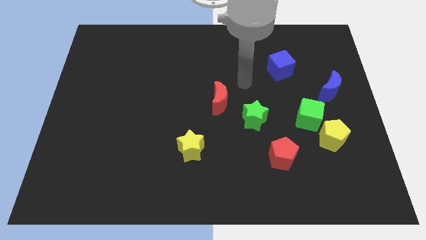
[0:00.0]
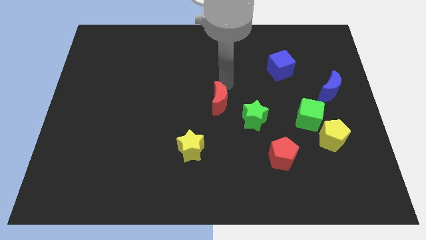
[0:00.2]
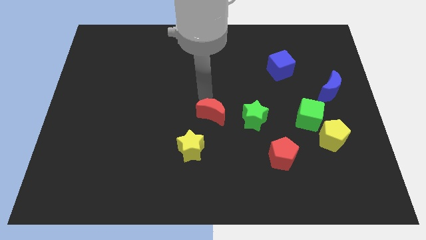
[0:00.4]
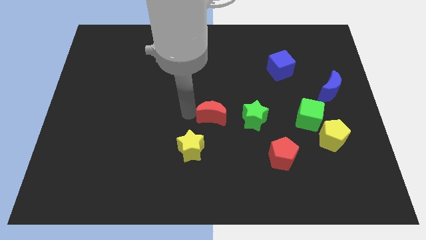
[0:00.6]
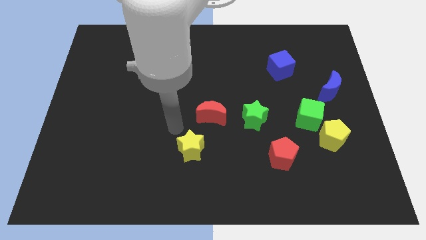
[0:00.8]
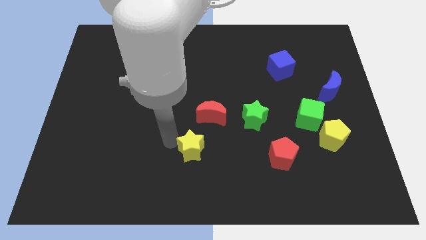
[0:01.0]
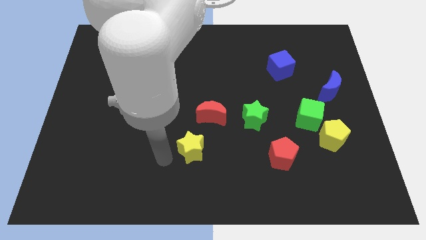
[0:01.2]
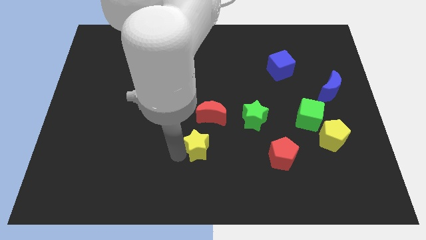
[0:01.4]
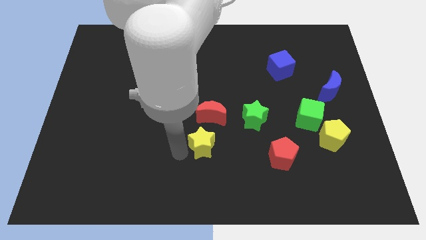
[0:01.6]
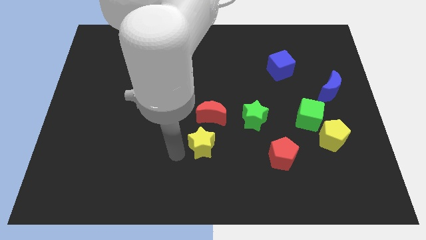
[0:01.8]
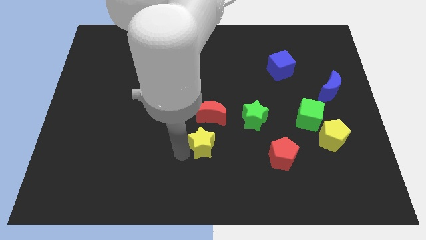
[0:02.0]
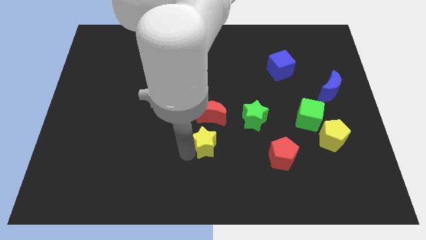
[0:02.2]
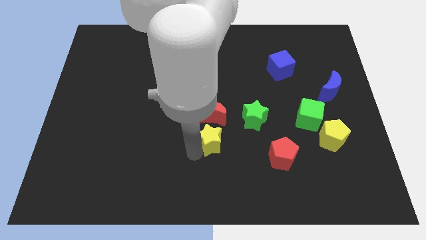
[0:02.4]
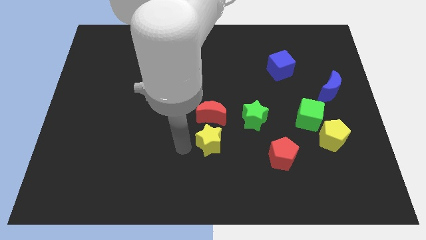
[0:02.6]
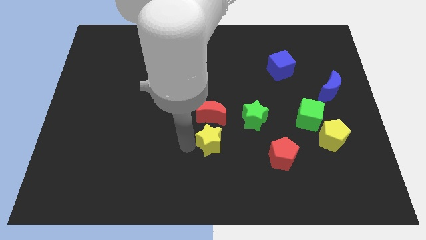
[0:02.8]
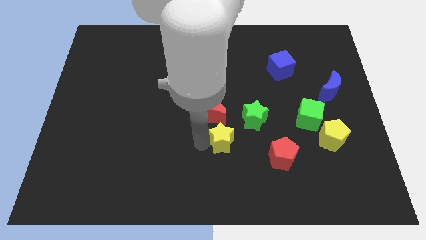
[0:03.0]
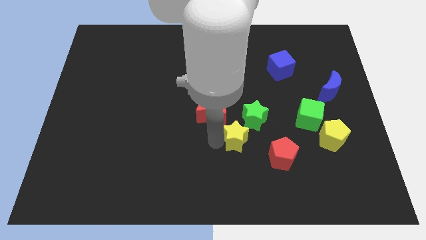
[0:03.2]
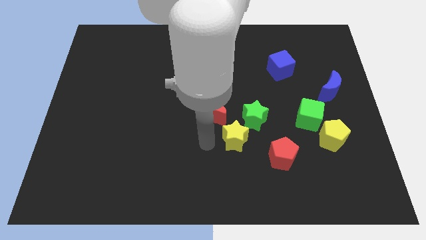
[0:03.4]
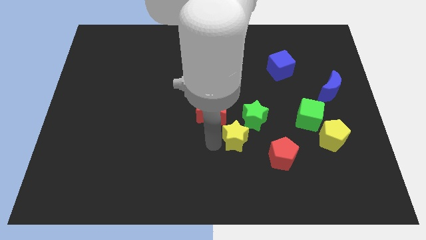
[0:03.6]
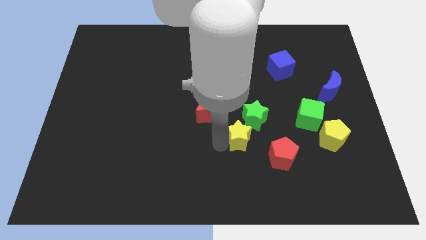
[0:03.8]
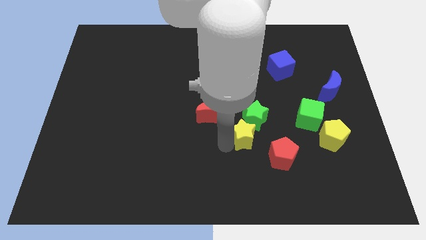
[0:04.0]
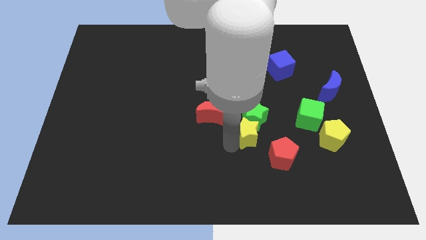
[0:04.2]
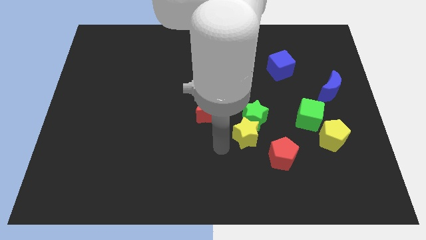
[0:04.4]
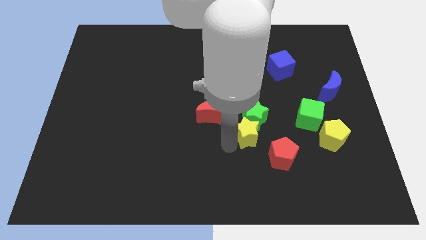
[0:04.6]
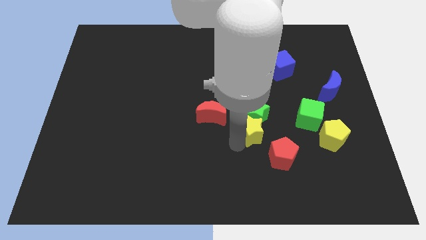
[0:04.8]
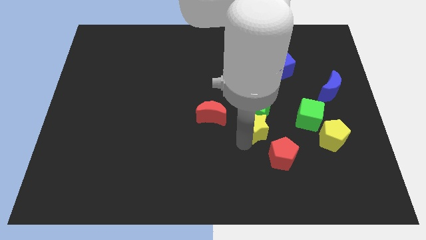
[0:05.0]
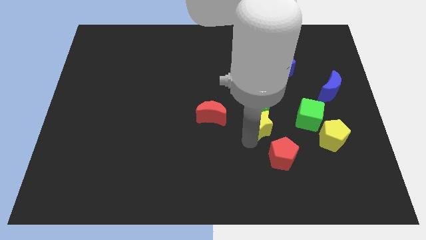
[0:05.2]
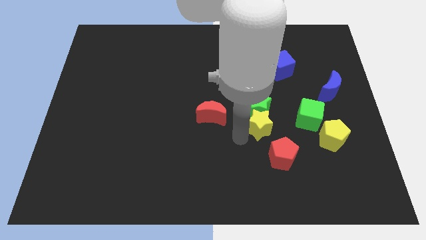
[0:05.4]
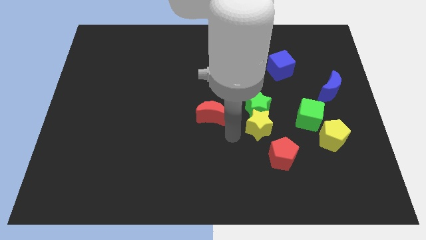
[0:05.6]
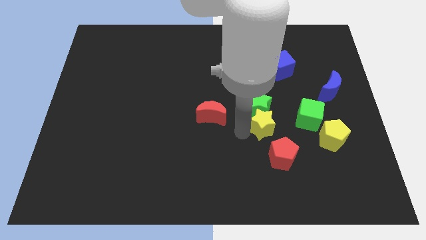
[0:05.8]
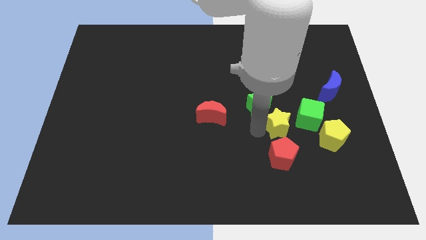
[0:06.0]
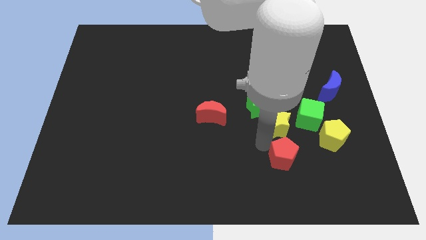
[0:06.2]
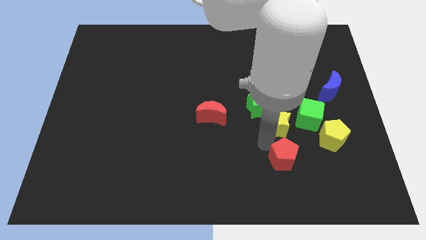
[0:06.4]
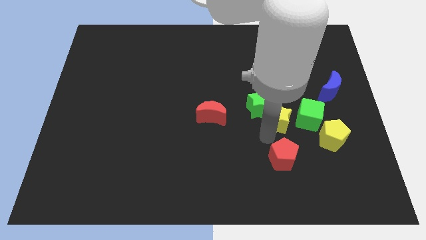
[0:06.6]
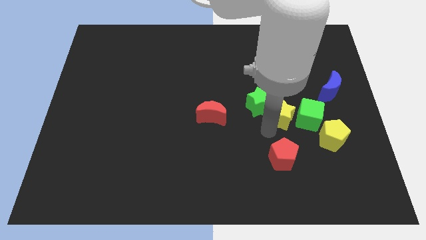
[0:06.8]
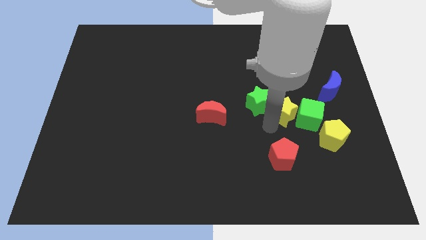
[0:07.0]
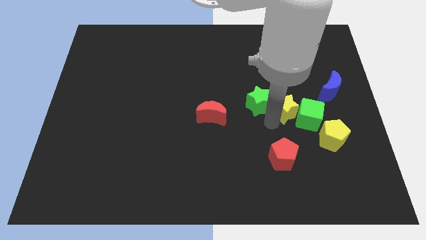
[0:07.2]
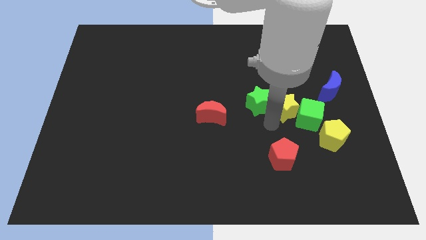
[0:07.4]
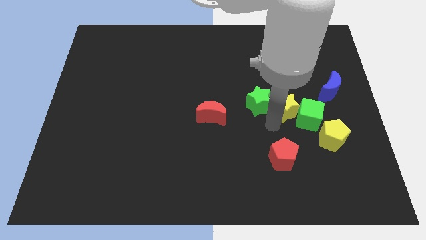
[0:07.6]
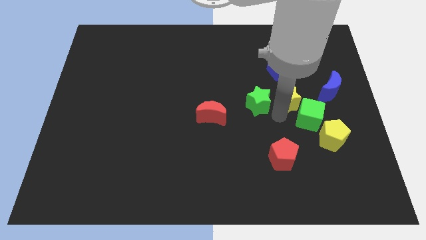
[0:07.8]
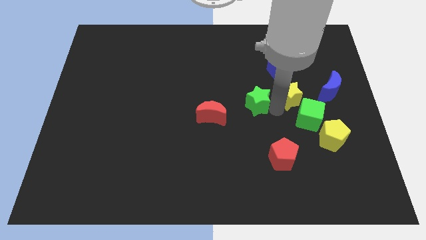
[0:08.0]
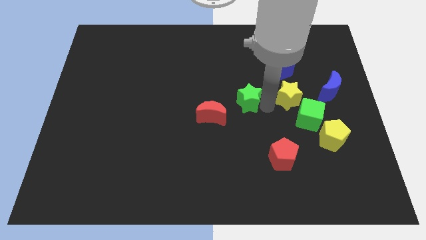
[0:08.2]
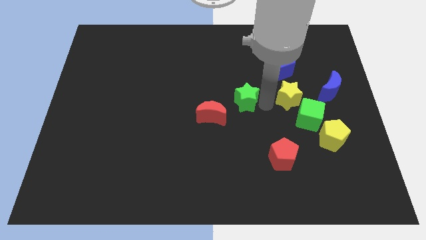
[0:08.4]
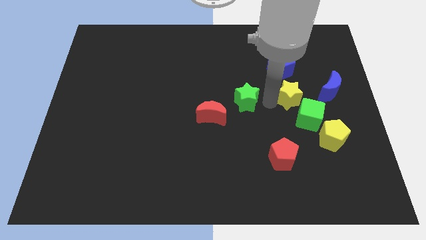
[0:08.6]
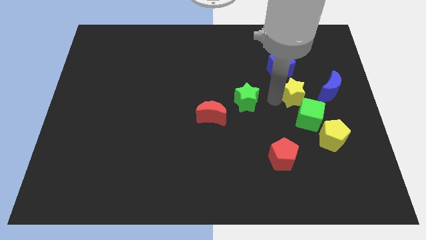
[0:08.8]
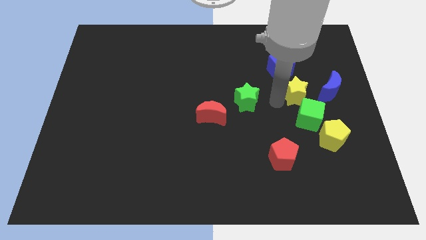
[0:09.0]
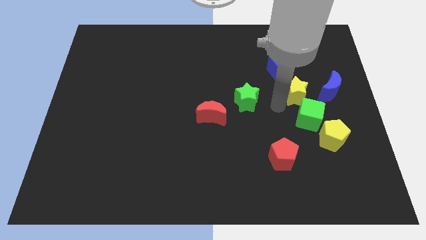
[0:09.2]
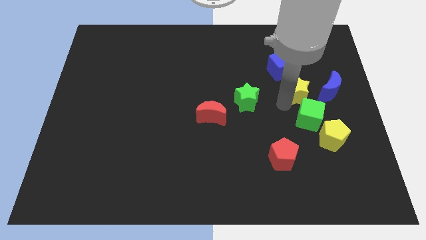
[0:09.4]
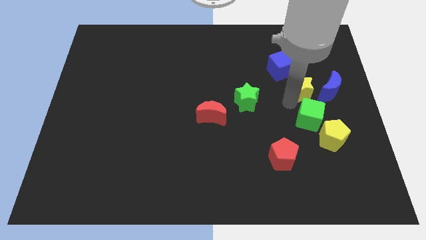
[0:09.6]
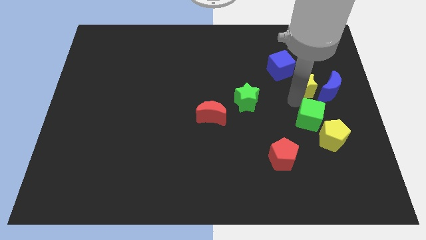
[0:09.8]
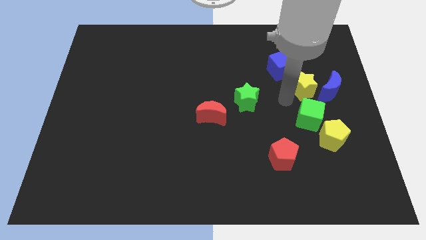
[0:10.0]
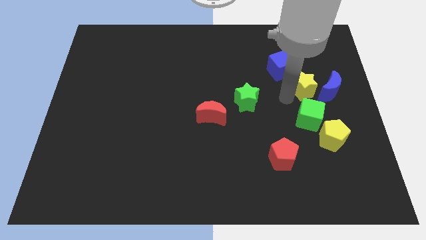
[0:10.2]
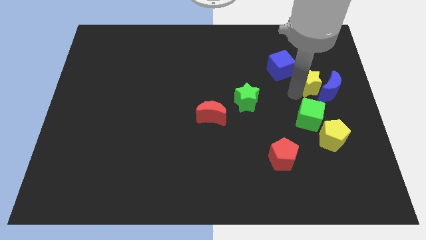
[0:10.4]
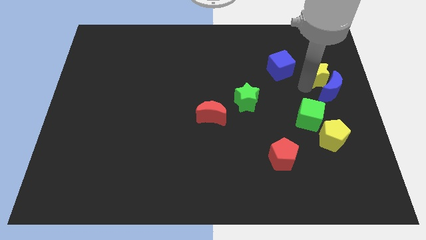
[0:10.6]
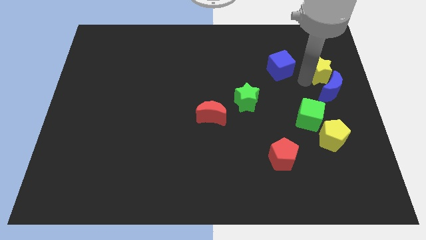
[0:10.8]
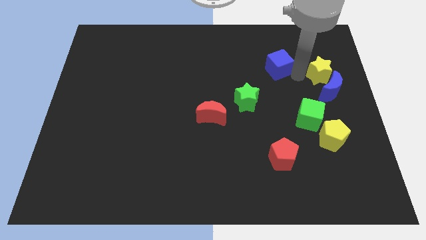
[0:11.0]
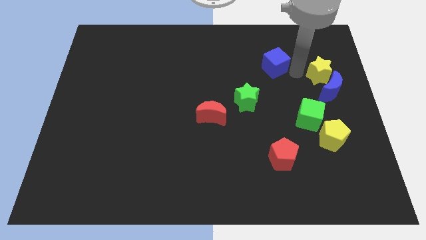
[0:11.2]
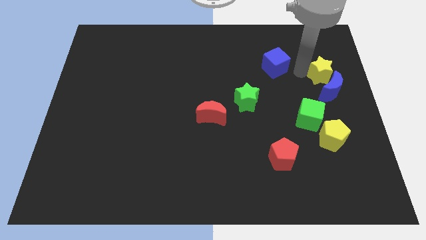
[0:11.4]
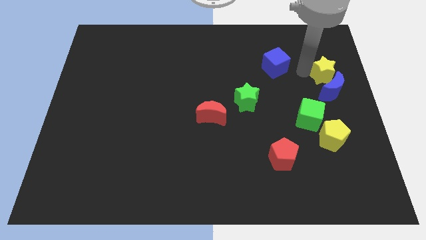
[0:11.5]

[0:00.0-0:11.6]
push the yellow star to the right side

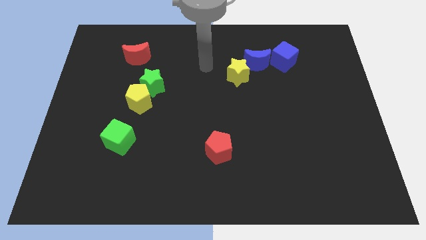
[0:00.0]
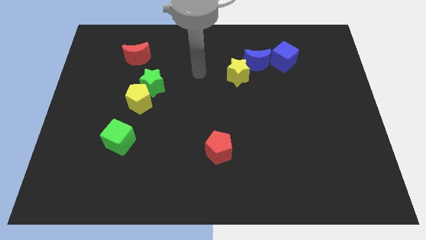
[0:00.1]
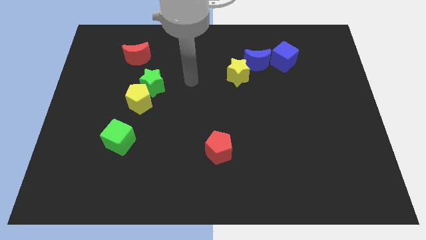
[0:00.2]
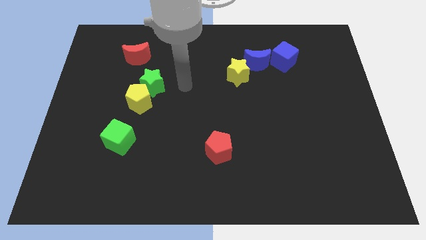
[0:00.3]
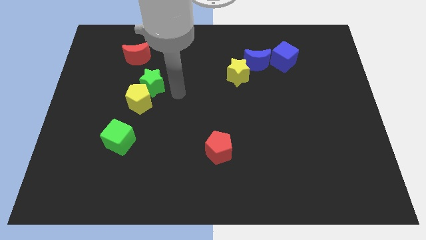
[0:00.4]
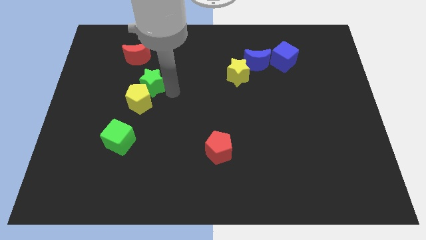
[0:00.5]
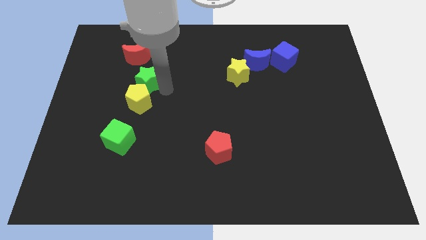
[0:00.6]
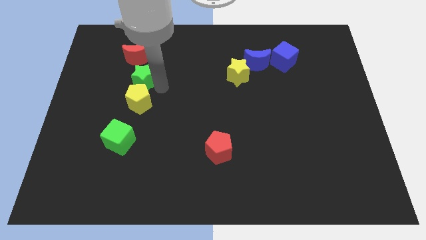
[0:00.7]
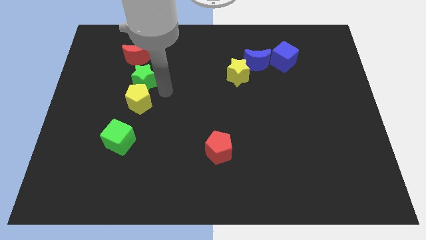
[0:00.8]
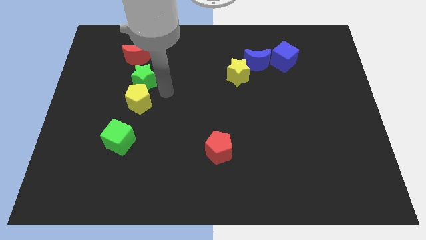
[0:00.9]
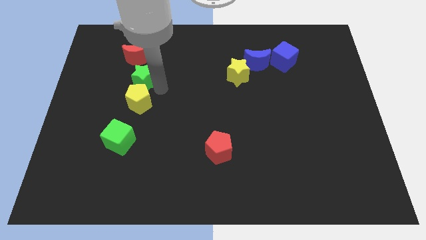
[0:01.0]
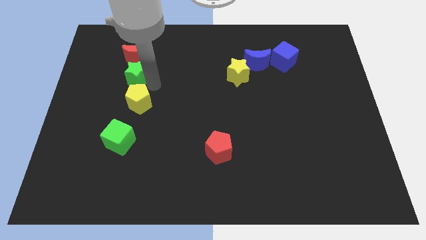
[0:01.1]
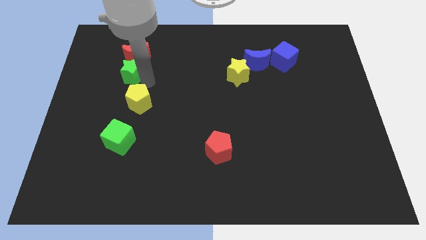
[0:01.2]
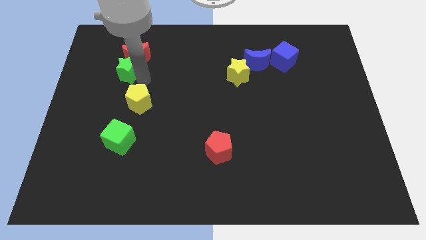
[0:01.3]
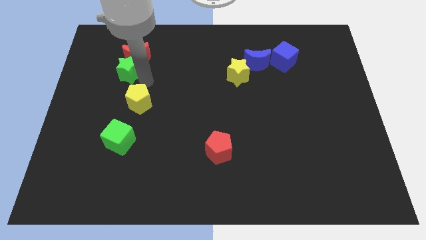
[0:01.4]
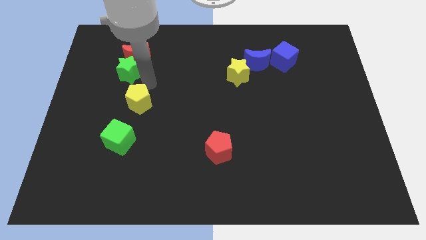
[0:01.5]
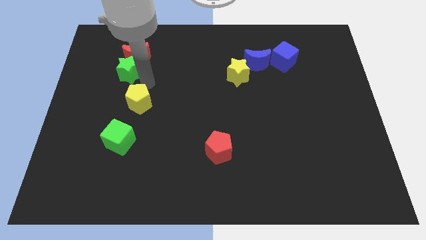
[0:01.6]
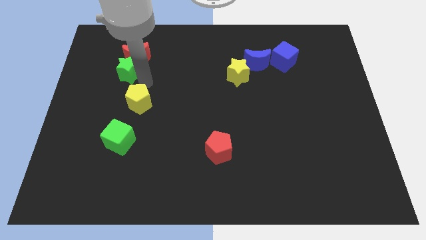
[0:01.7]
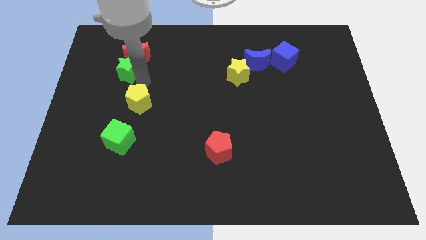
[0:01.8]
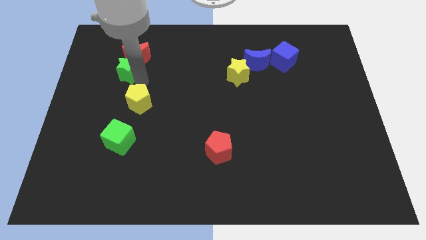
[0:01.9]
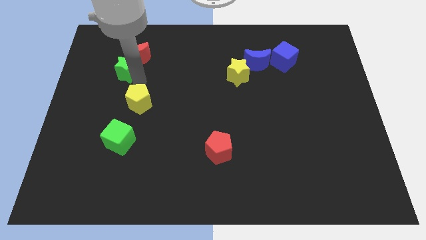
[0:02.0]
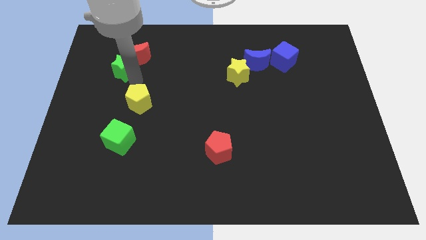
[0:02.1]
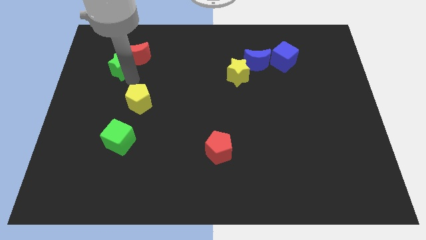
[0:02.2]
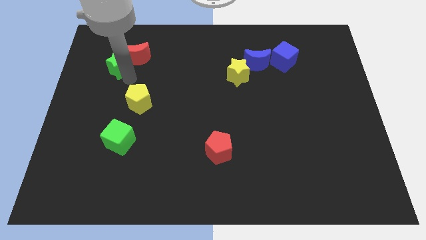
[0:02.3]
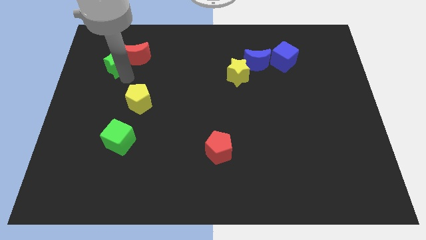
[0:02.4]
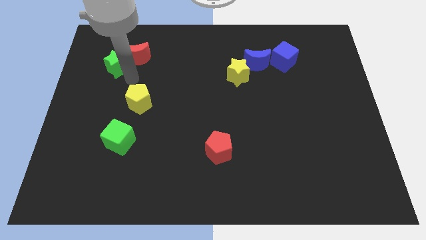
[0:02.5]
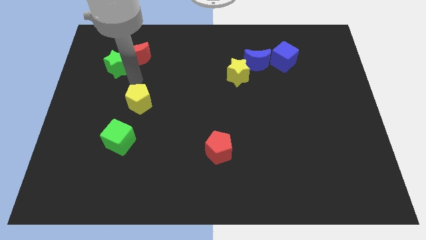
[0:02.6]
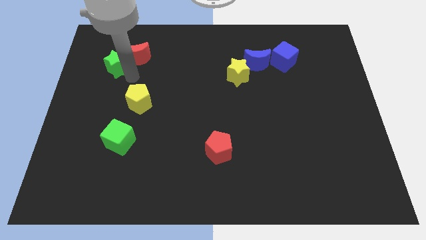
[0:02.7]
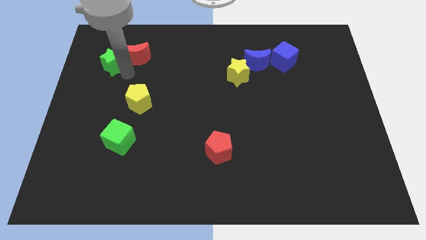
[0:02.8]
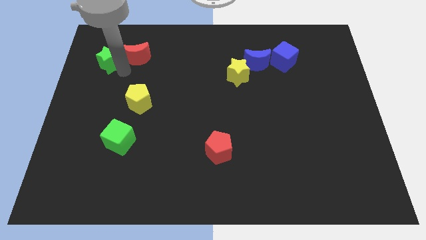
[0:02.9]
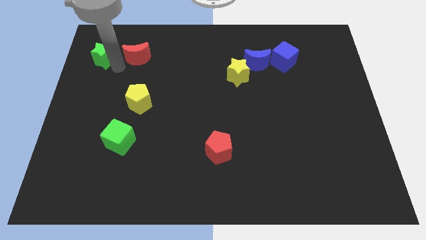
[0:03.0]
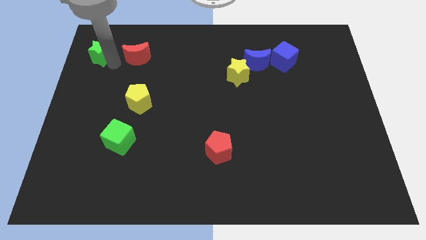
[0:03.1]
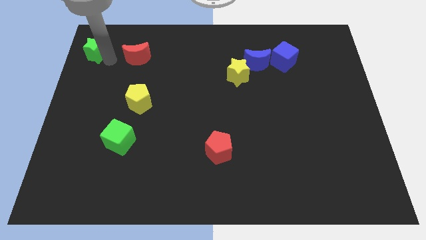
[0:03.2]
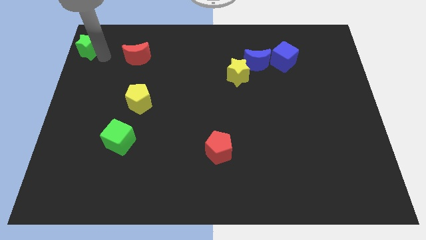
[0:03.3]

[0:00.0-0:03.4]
push the green star to the top left corner
